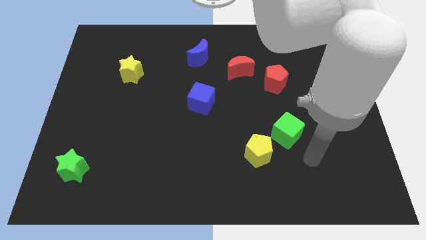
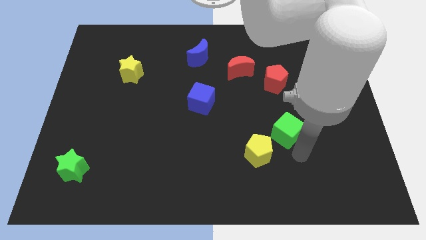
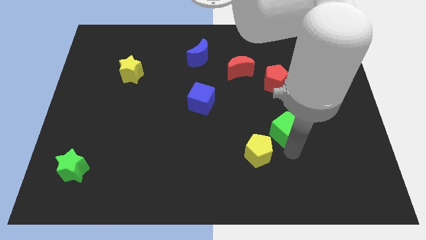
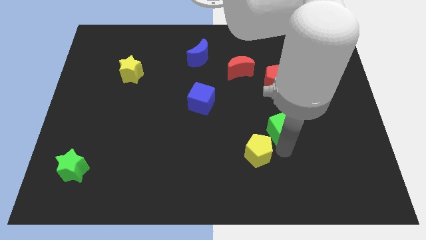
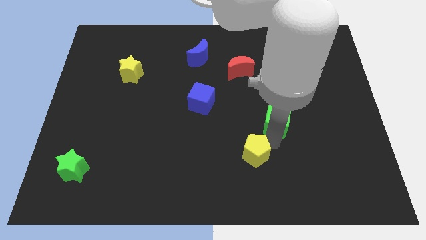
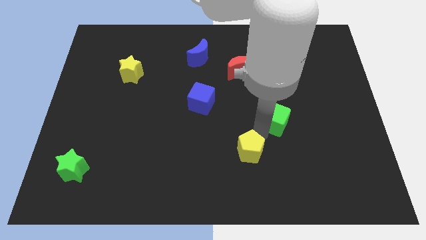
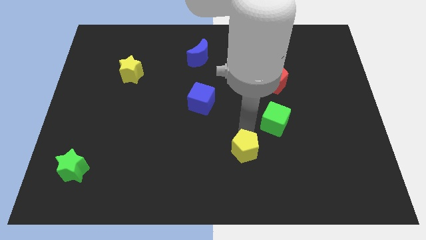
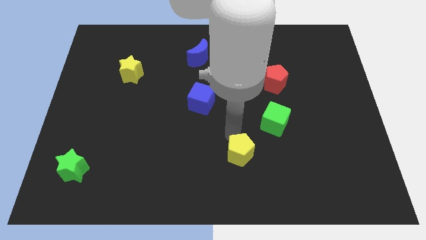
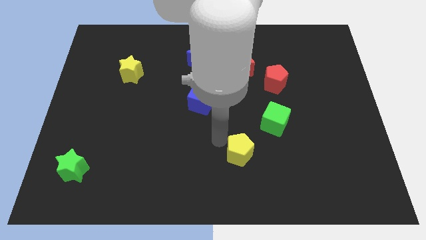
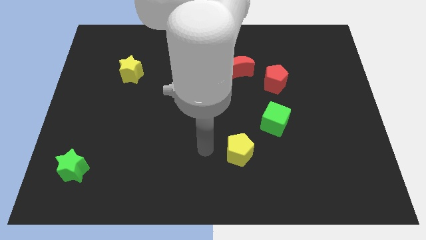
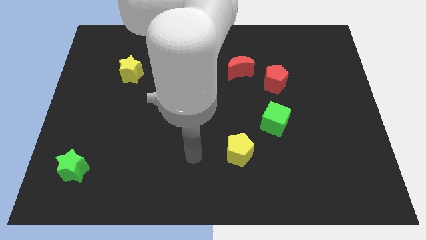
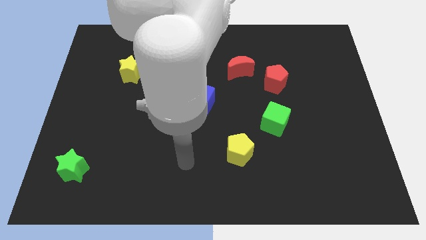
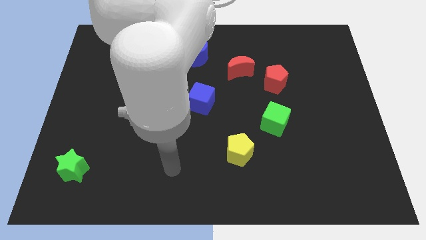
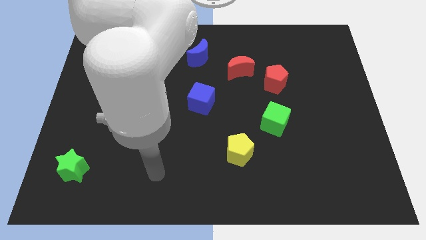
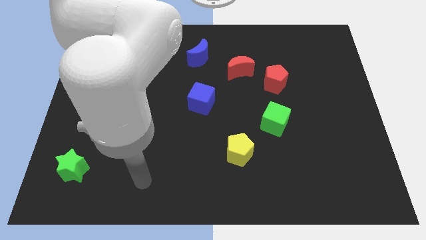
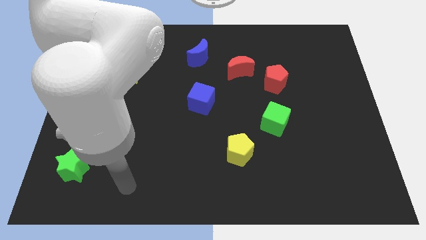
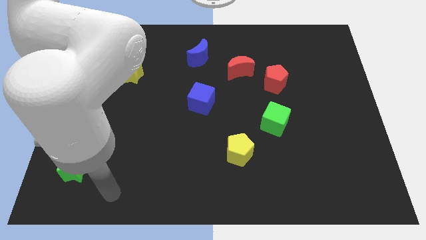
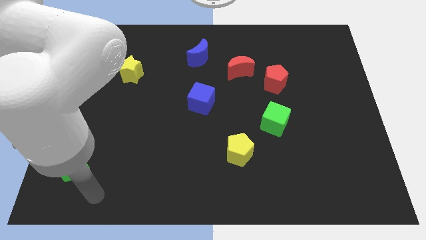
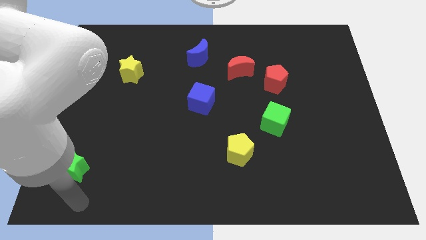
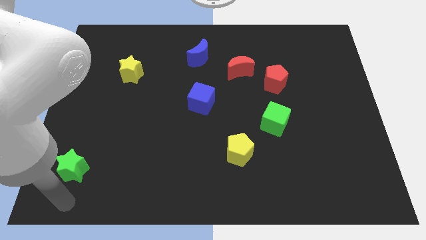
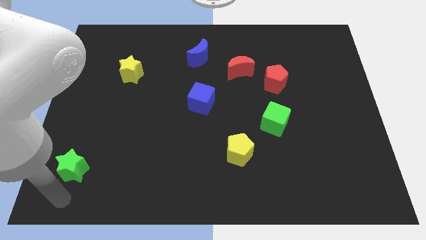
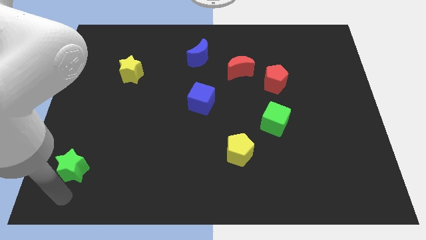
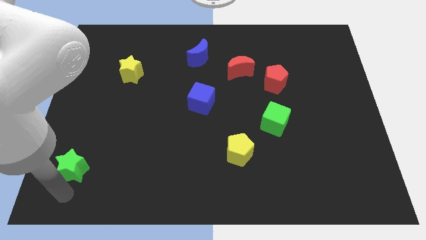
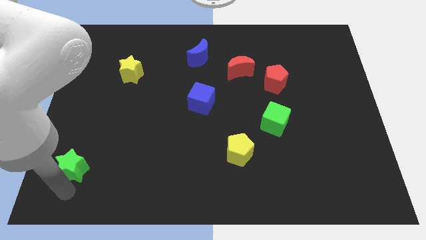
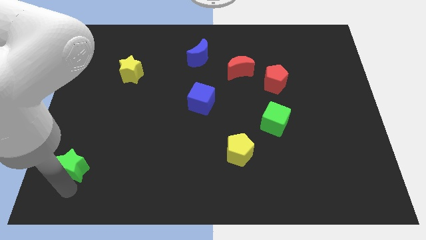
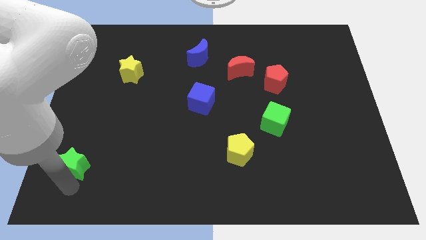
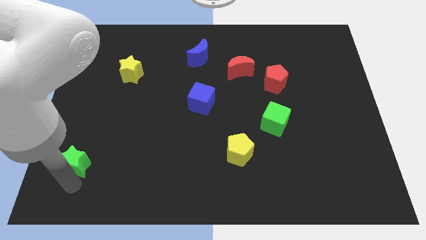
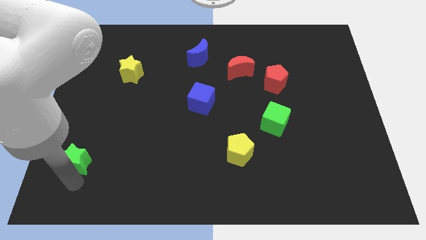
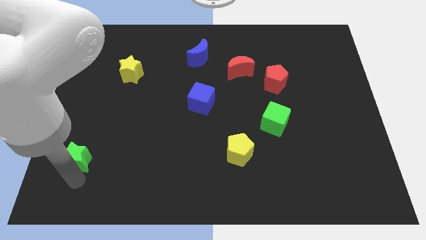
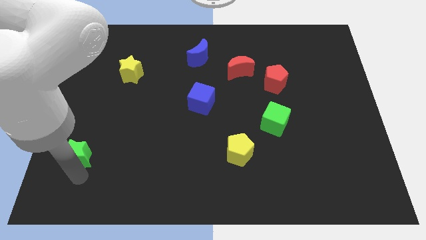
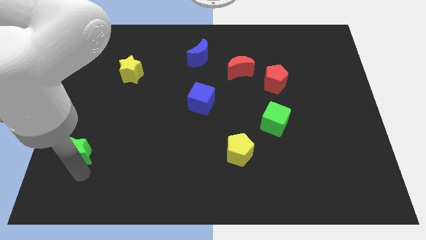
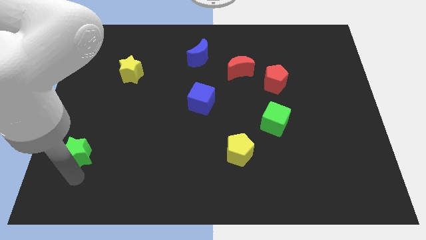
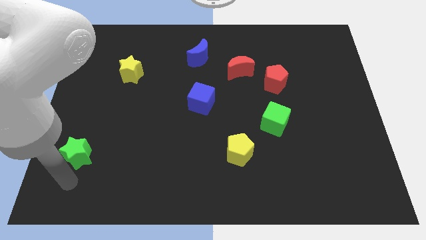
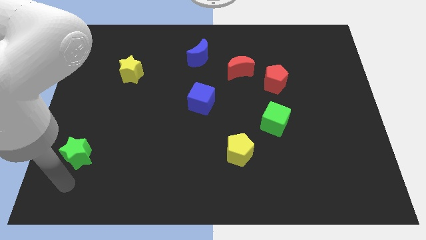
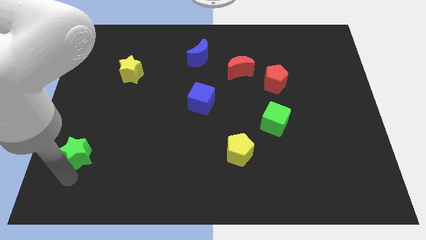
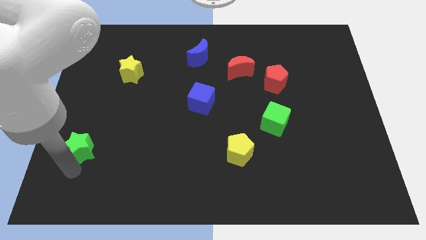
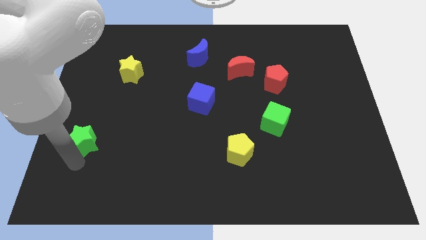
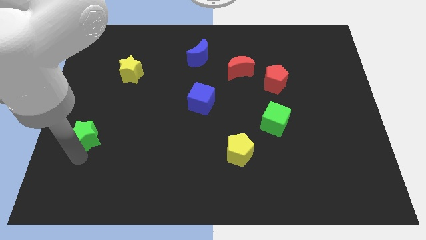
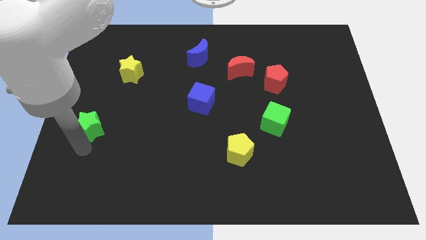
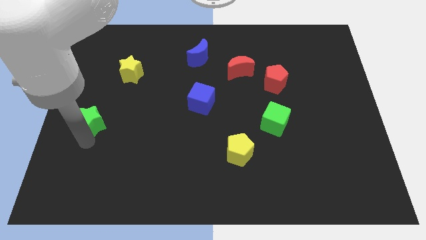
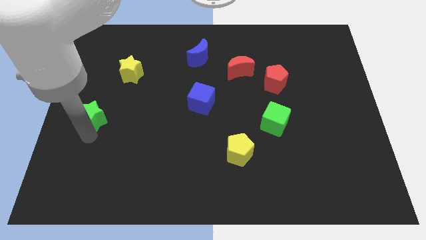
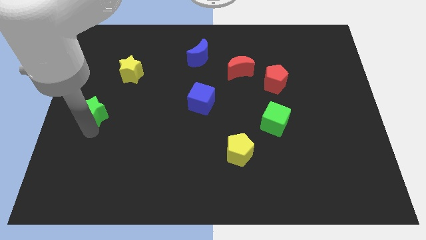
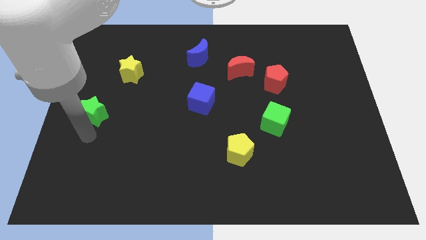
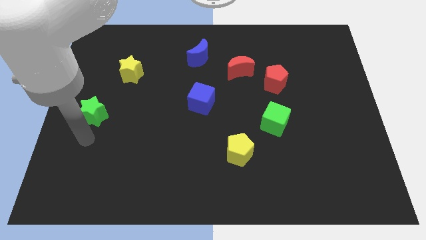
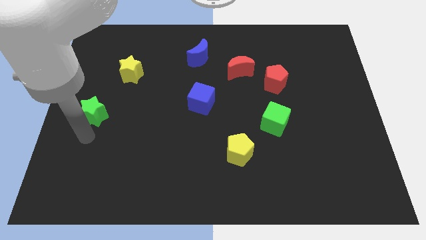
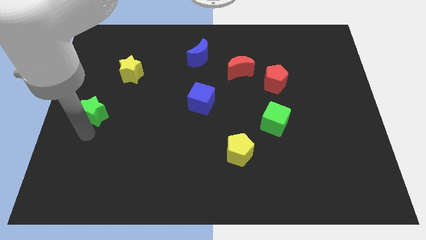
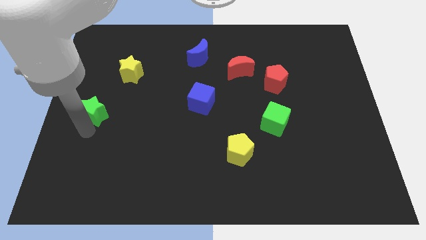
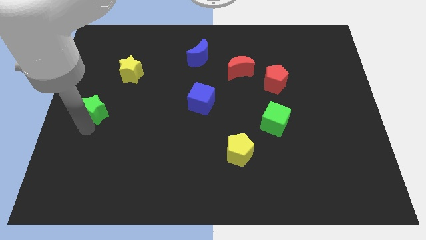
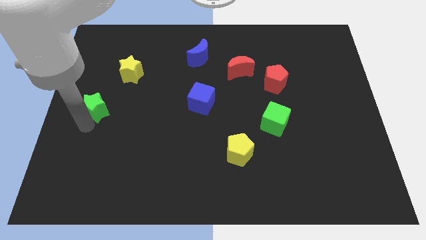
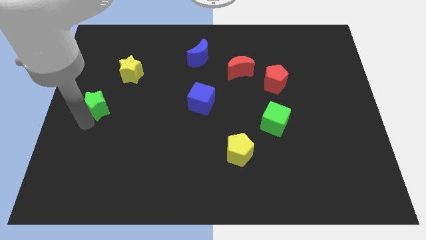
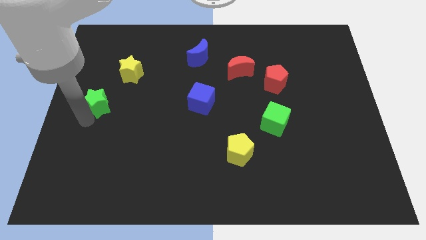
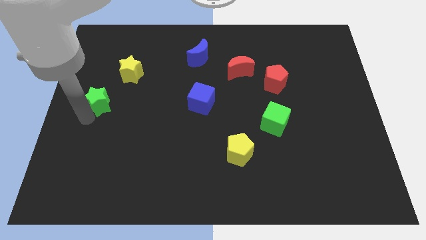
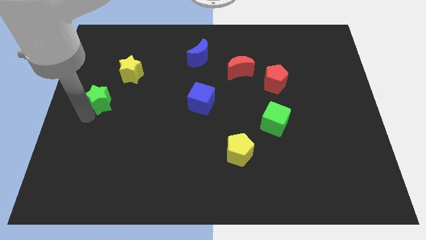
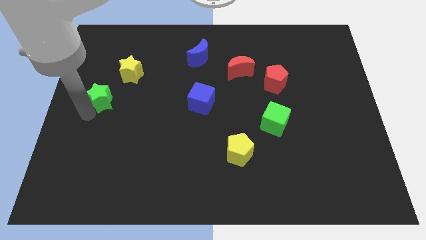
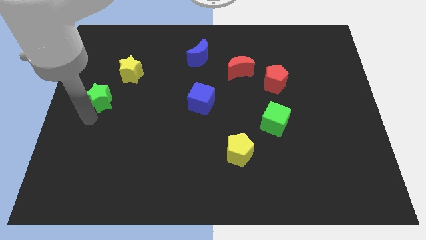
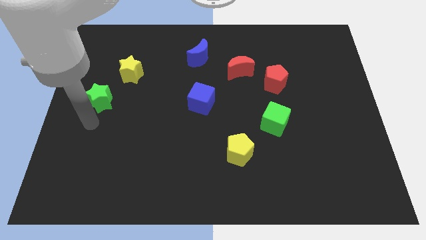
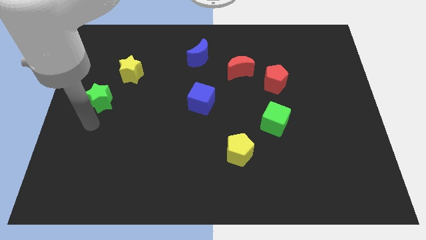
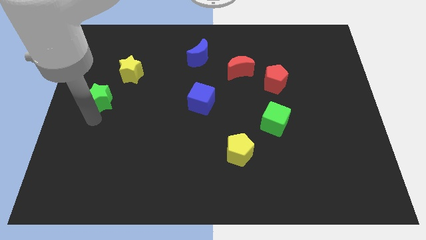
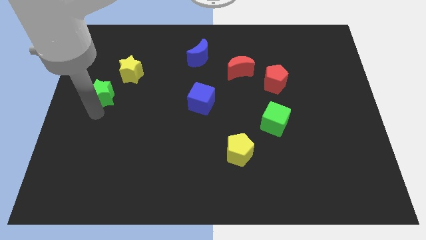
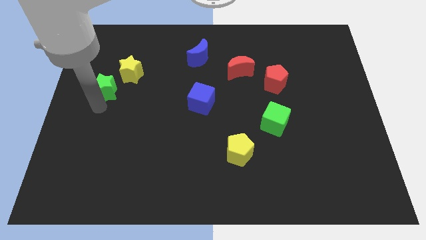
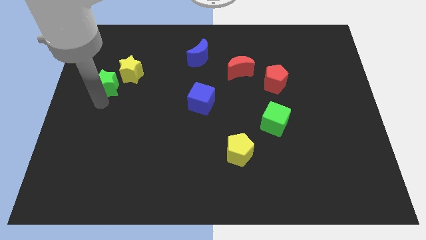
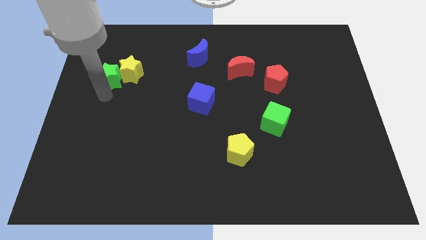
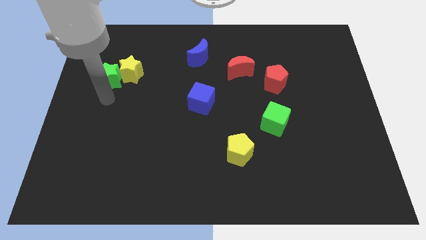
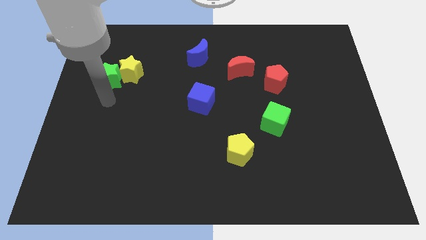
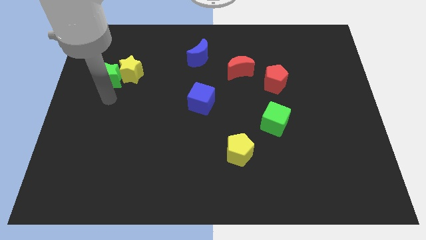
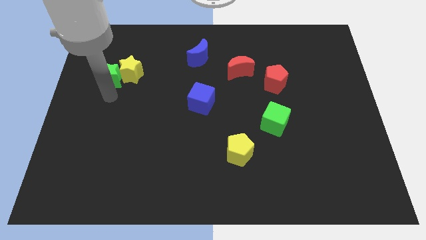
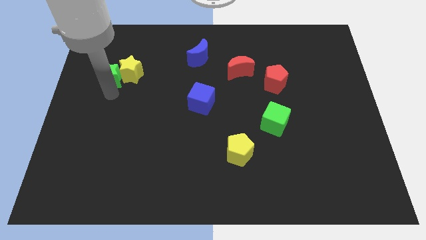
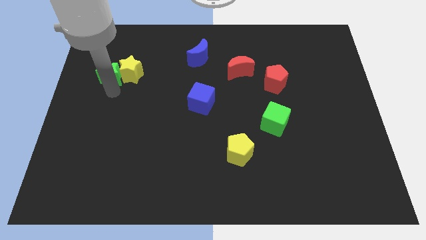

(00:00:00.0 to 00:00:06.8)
move the green star diagonally up and to the left of the yellow star

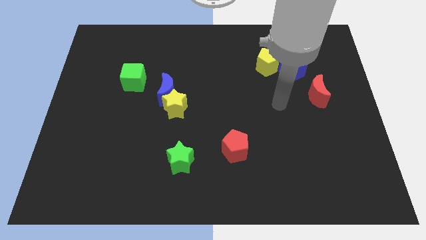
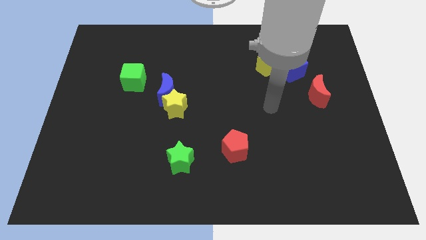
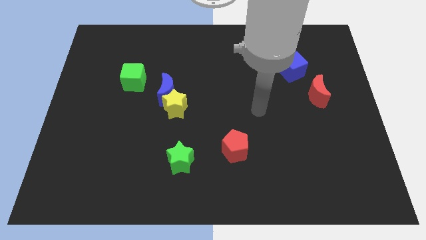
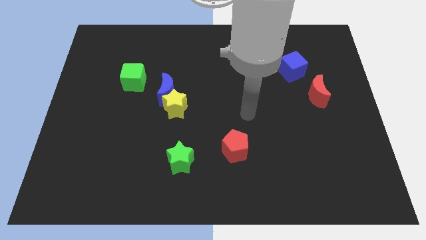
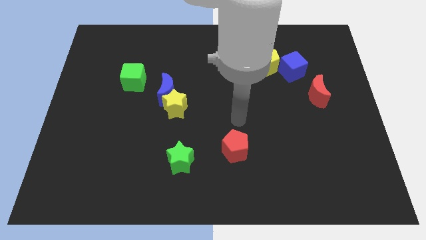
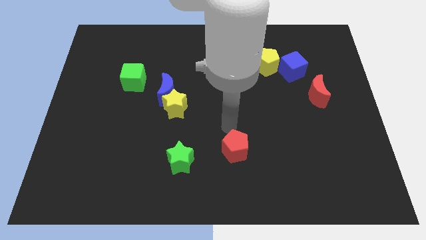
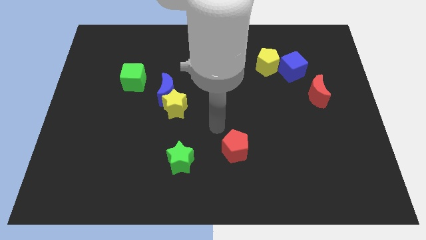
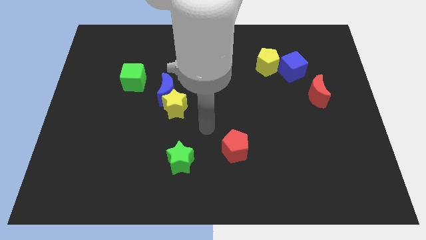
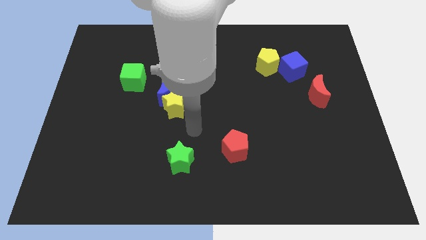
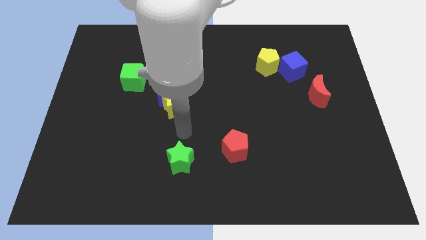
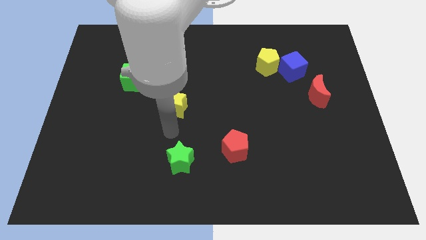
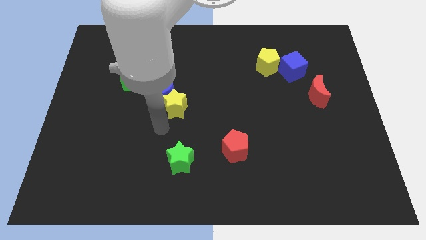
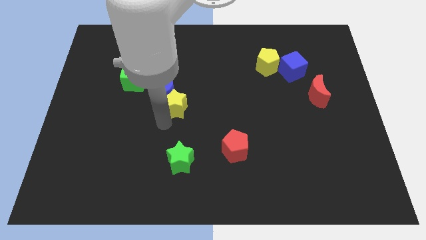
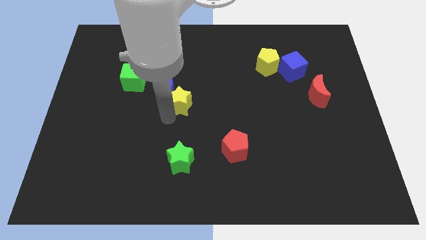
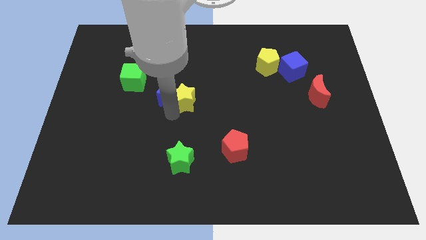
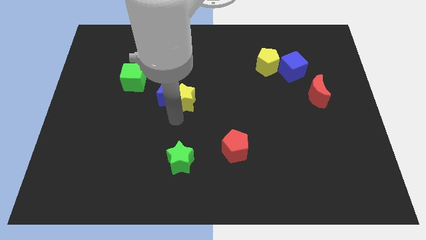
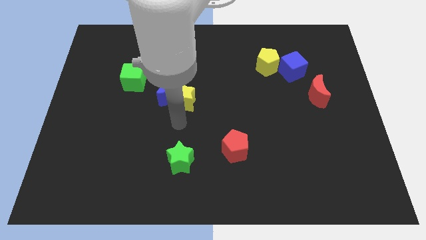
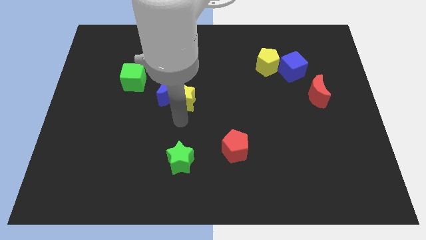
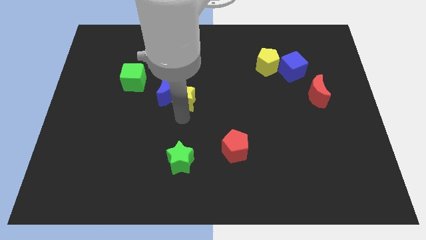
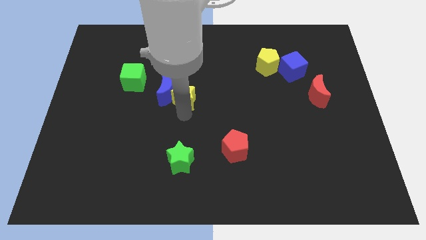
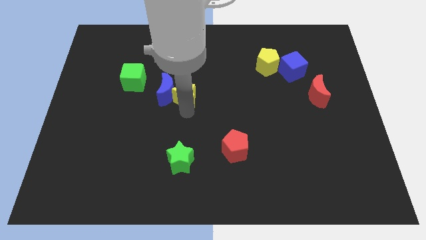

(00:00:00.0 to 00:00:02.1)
move the yellow star diagonally up and to the right of the blue moon
